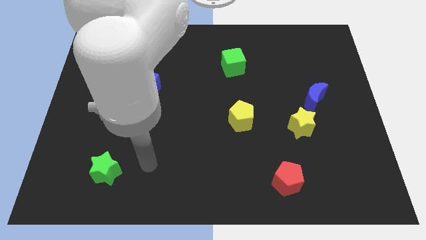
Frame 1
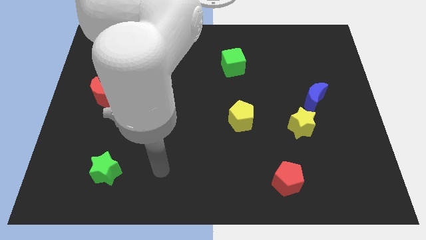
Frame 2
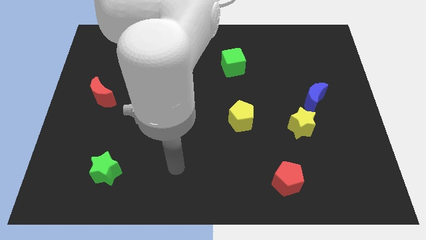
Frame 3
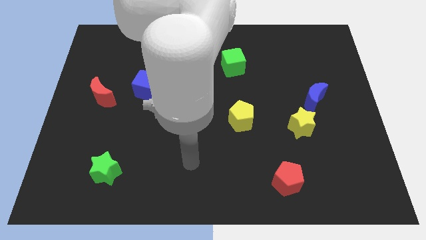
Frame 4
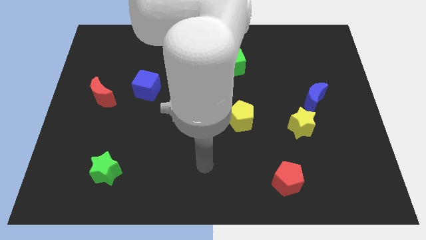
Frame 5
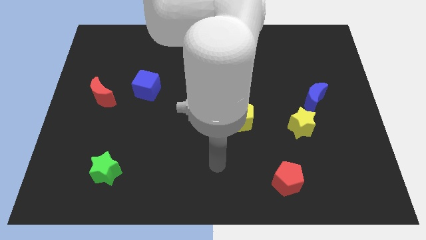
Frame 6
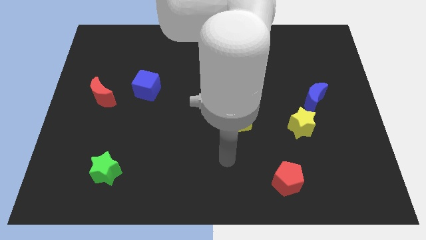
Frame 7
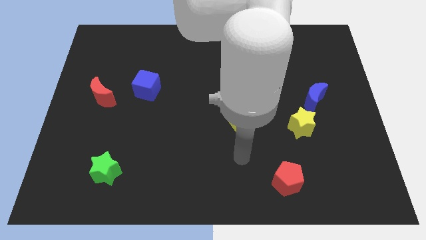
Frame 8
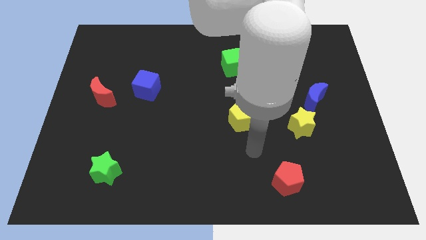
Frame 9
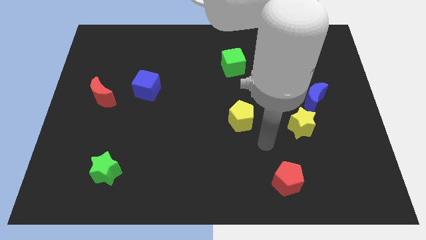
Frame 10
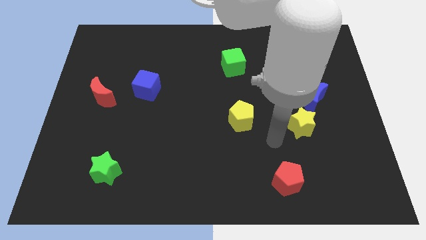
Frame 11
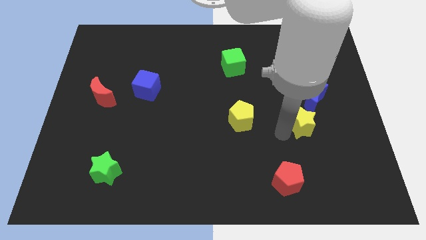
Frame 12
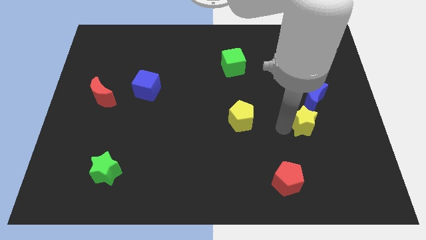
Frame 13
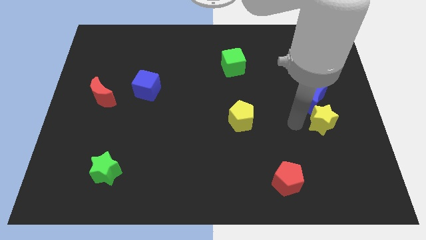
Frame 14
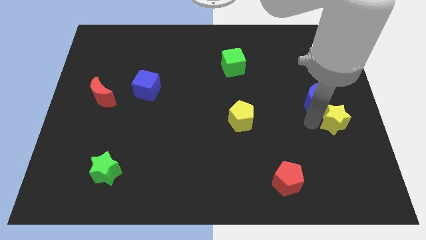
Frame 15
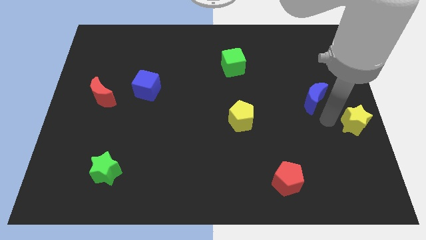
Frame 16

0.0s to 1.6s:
separate the blue moon from the yellow star

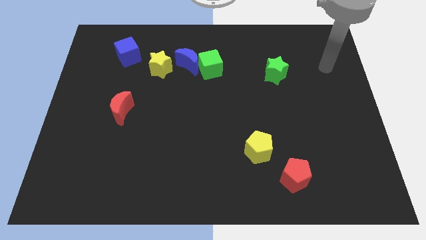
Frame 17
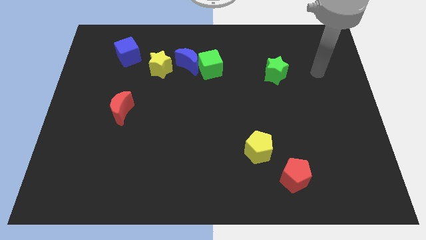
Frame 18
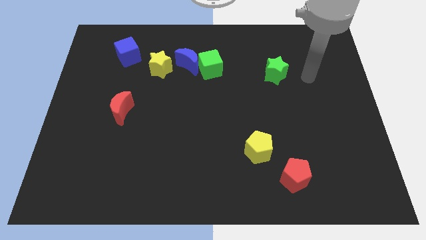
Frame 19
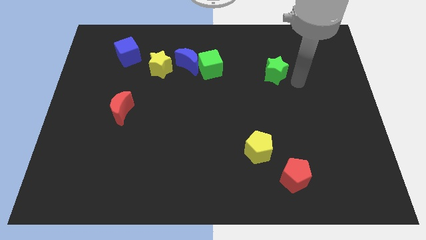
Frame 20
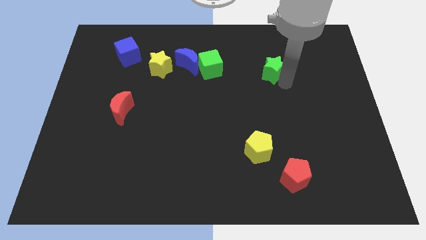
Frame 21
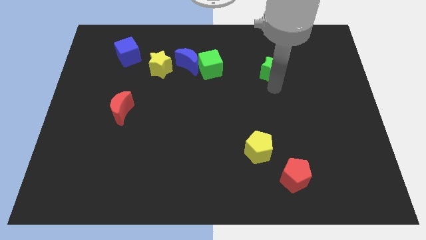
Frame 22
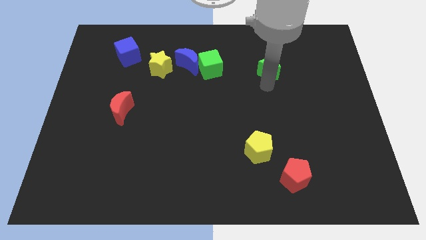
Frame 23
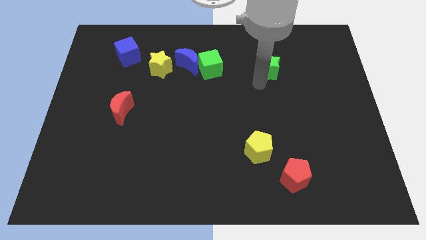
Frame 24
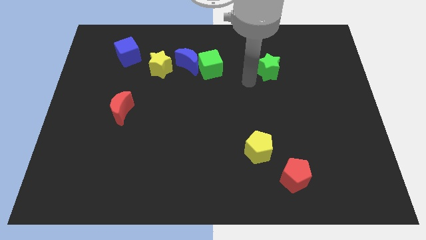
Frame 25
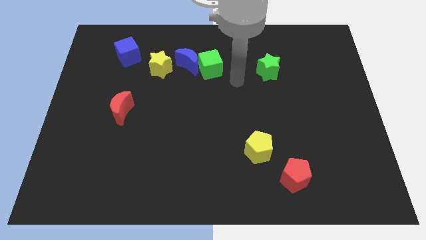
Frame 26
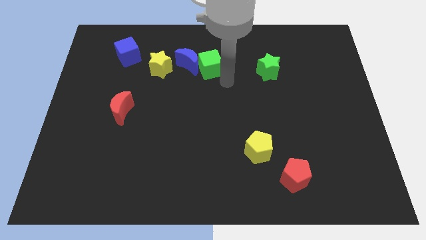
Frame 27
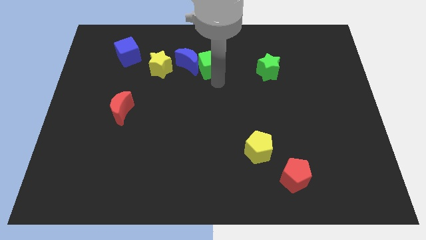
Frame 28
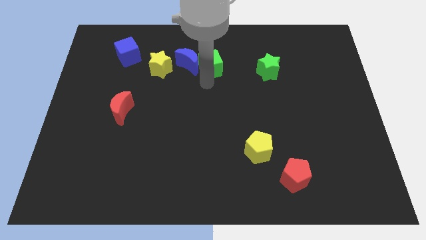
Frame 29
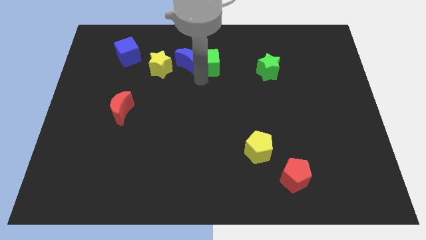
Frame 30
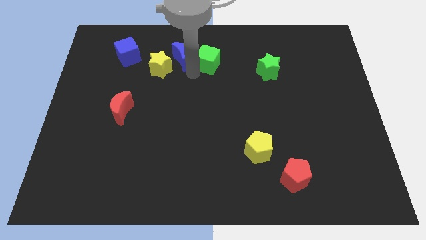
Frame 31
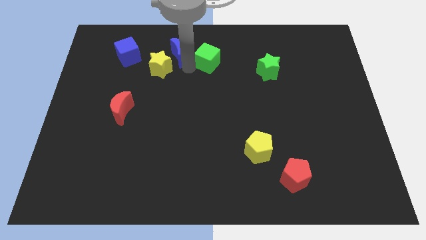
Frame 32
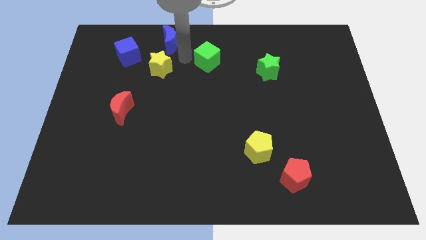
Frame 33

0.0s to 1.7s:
pull the green cube apart from the blue moon

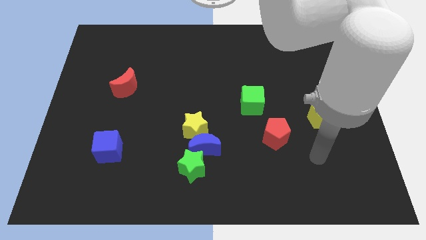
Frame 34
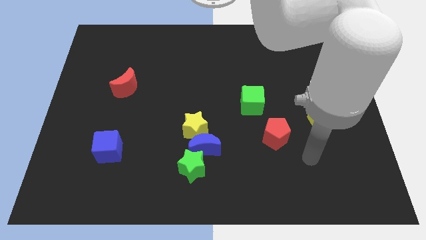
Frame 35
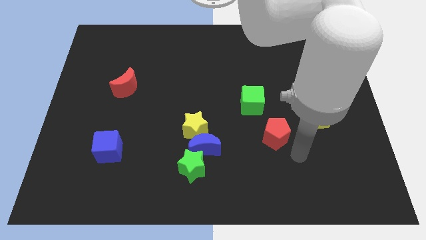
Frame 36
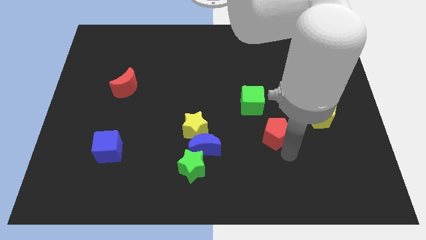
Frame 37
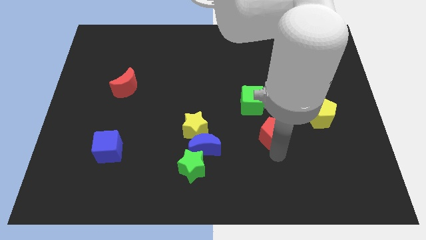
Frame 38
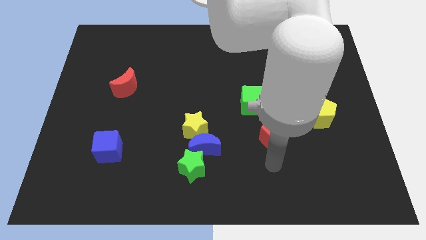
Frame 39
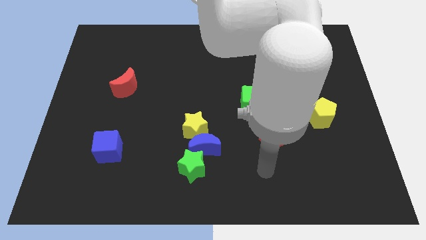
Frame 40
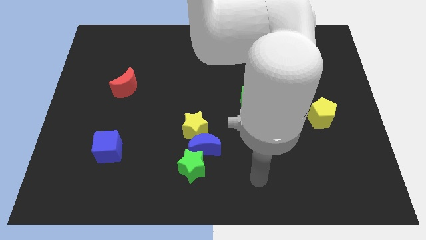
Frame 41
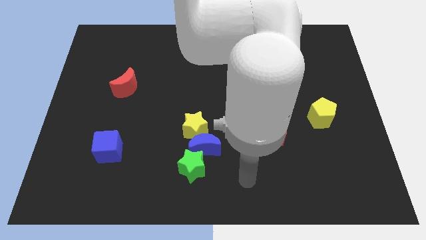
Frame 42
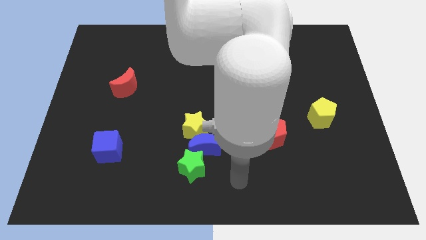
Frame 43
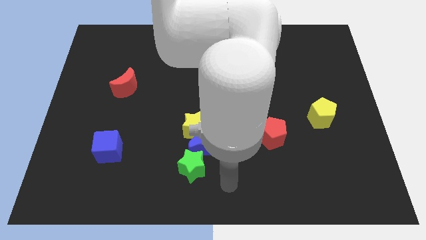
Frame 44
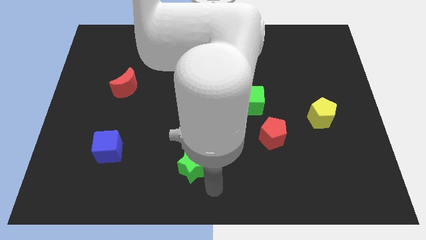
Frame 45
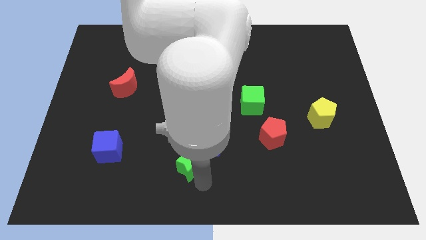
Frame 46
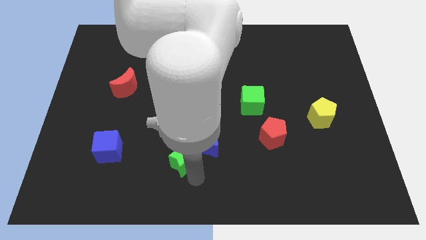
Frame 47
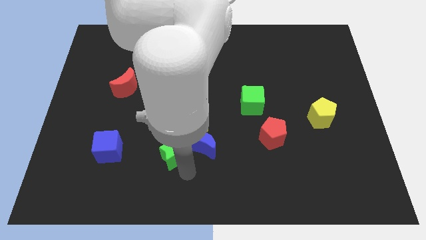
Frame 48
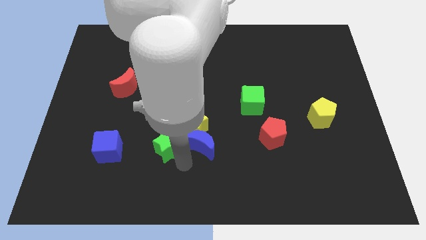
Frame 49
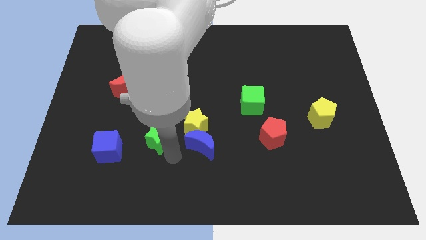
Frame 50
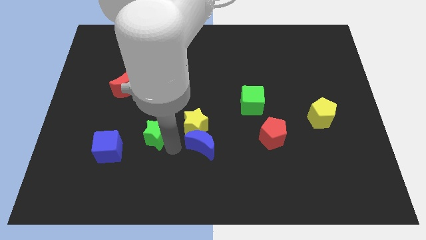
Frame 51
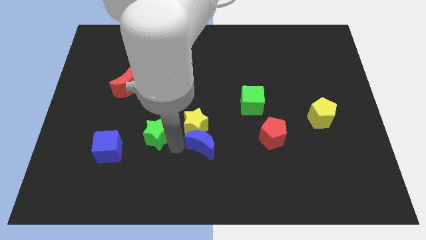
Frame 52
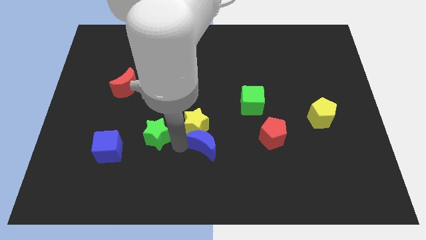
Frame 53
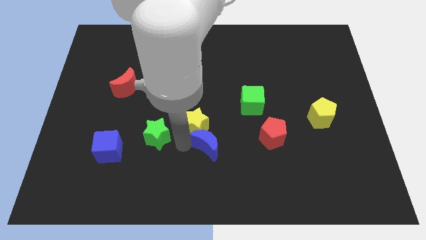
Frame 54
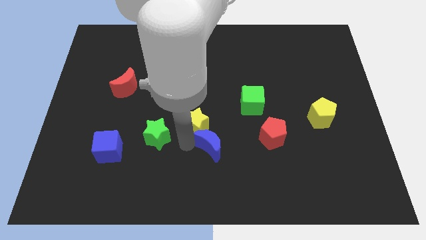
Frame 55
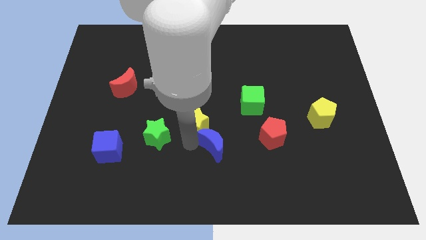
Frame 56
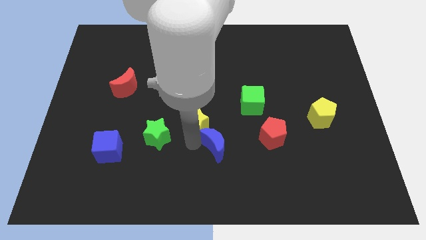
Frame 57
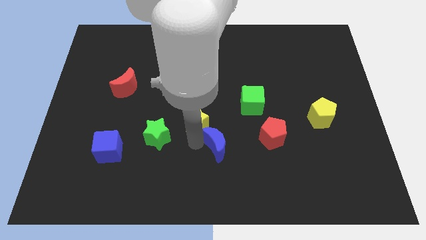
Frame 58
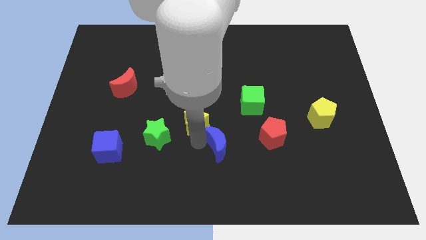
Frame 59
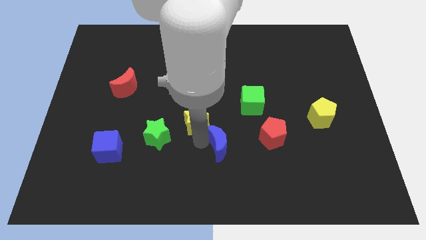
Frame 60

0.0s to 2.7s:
separate the blue moon from the yellow star and green star

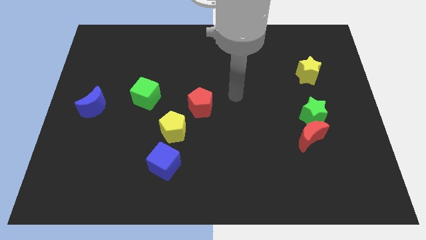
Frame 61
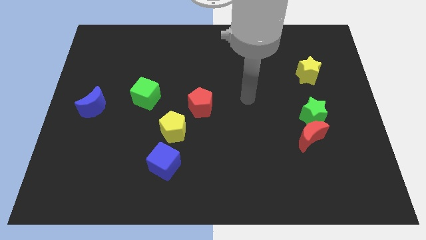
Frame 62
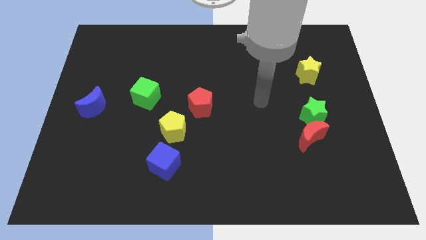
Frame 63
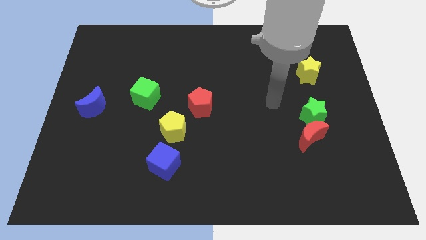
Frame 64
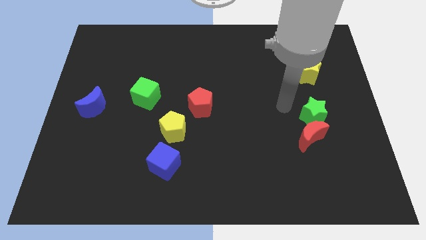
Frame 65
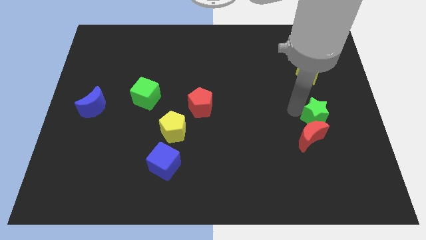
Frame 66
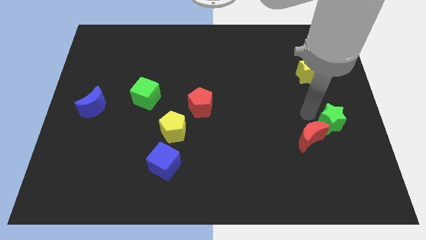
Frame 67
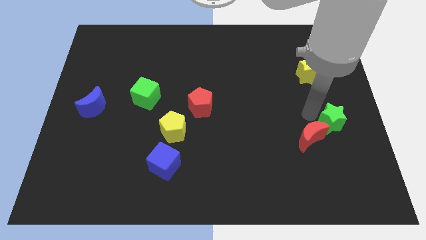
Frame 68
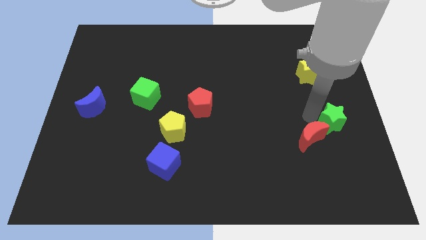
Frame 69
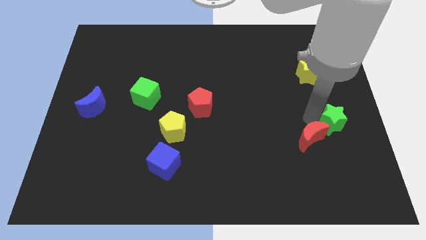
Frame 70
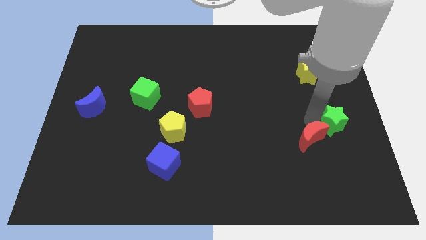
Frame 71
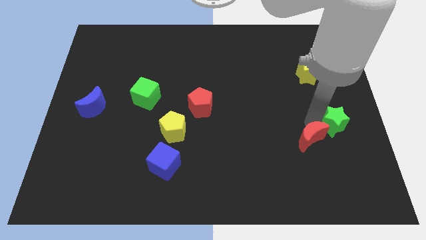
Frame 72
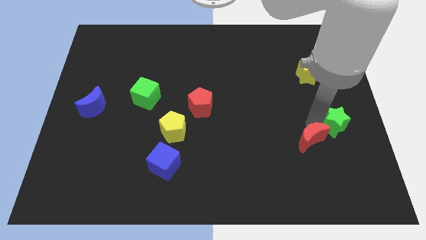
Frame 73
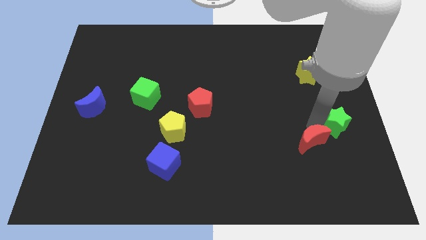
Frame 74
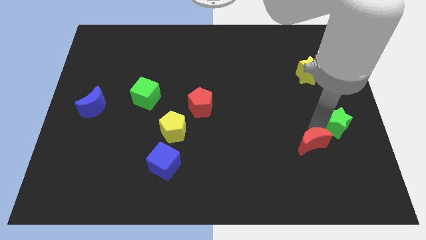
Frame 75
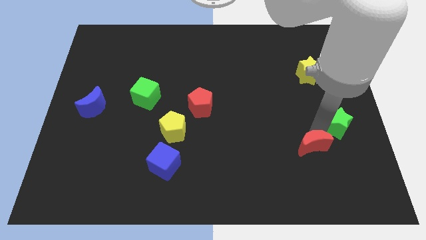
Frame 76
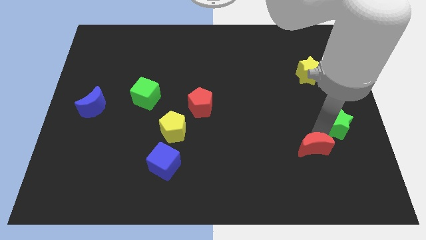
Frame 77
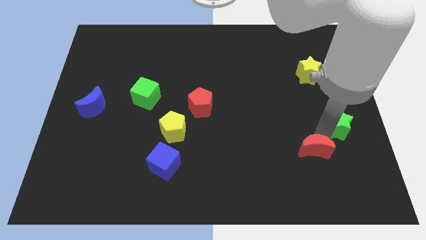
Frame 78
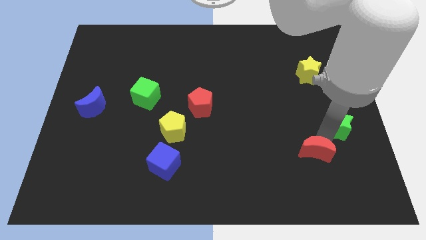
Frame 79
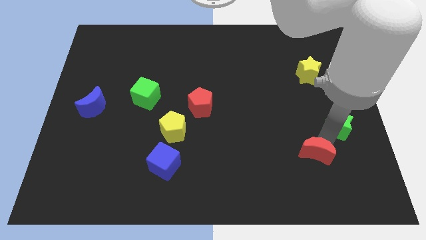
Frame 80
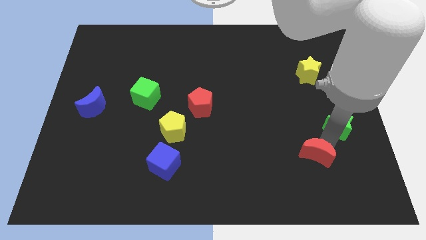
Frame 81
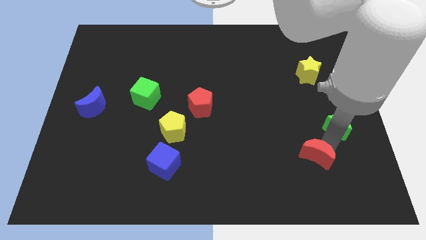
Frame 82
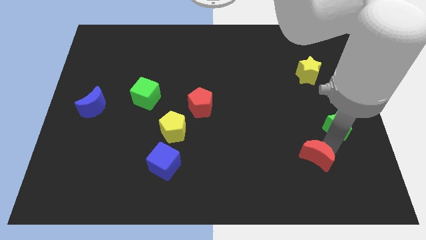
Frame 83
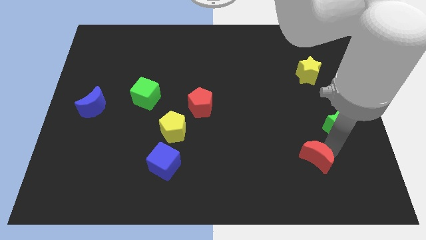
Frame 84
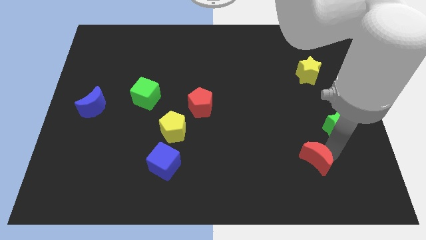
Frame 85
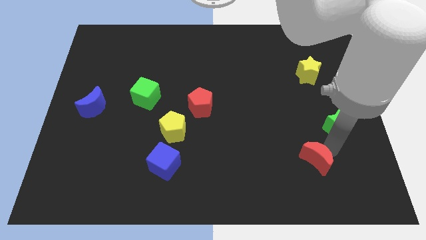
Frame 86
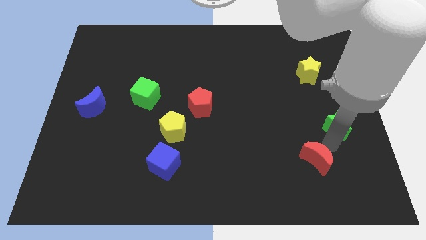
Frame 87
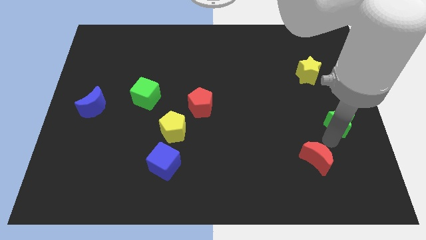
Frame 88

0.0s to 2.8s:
pull the red moon apart from the green star

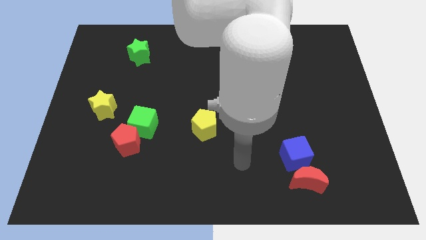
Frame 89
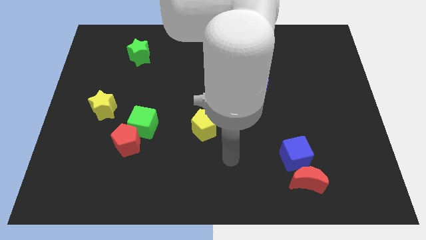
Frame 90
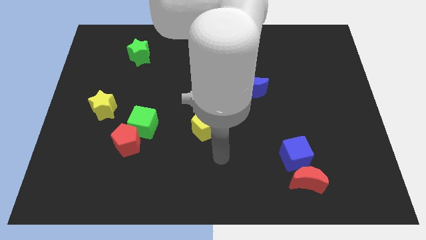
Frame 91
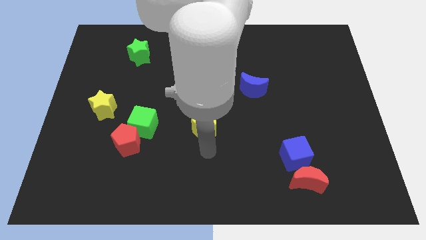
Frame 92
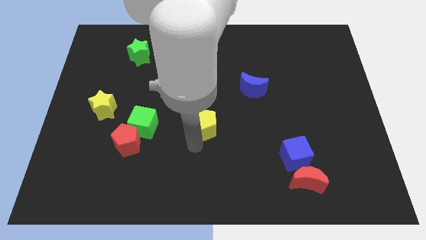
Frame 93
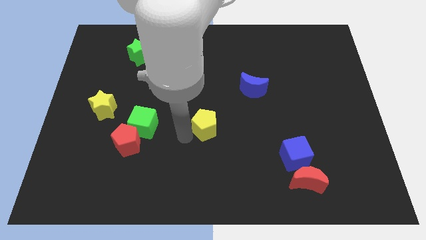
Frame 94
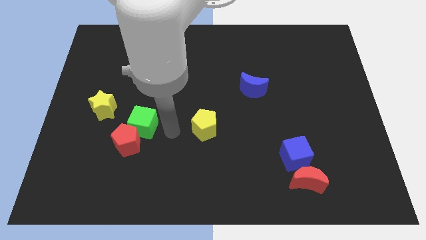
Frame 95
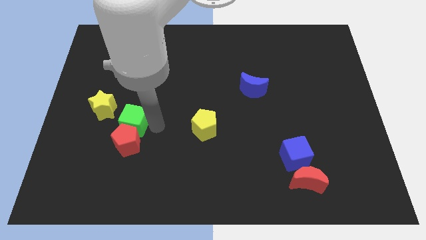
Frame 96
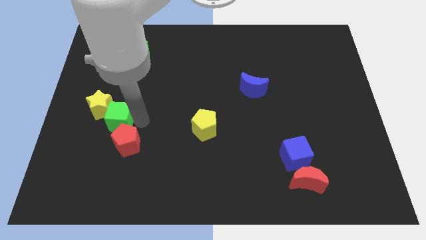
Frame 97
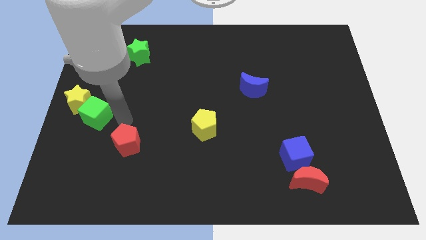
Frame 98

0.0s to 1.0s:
pull the red pentagon apart from the green cube
